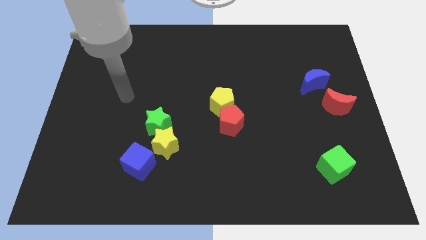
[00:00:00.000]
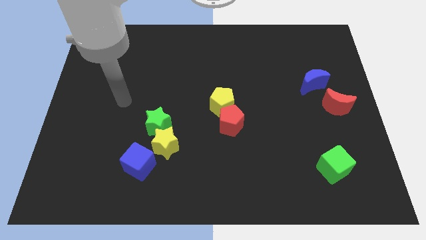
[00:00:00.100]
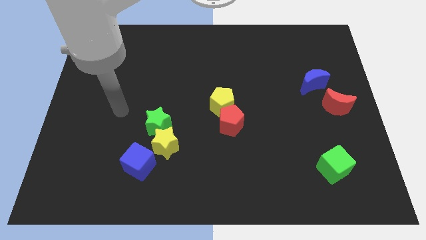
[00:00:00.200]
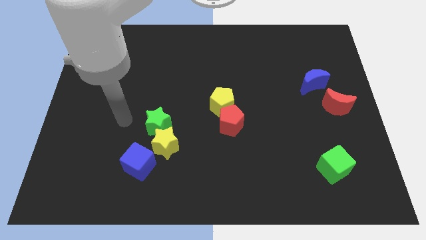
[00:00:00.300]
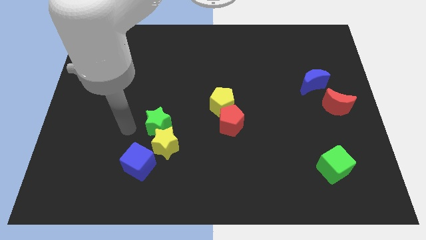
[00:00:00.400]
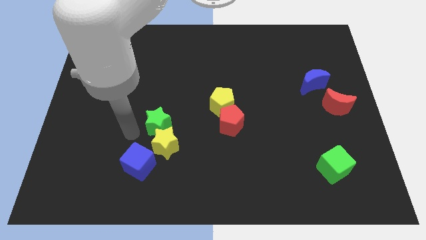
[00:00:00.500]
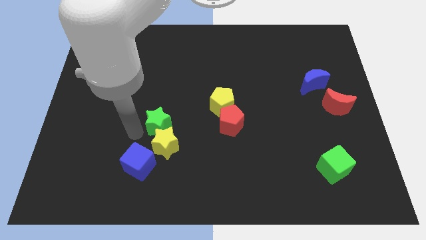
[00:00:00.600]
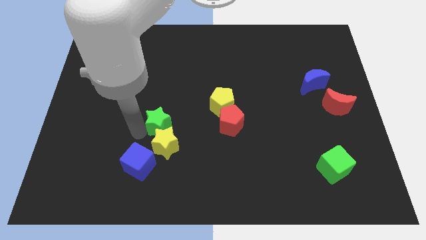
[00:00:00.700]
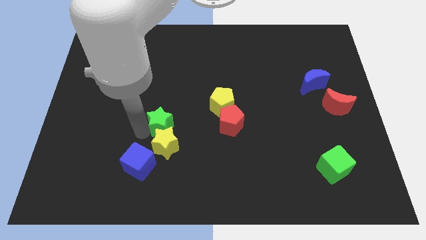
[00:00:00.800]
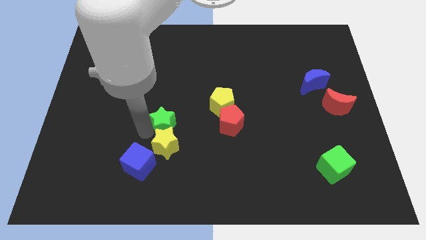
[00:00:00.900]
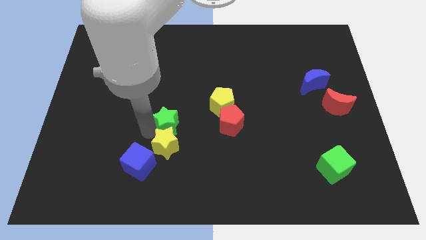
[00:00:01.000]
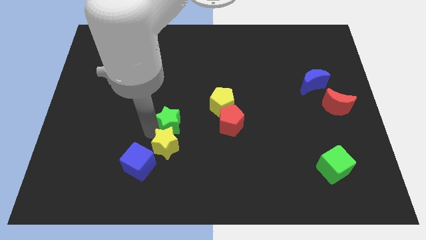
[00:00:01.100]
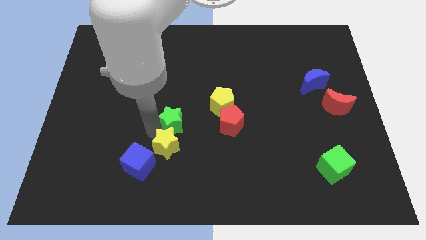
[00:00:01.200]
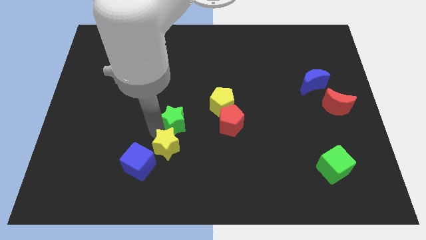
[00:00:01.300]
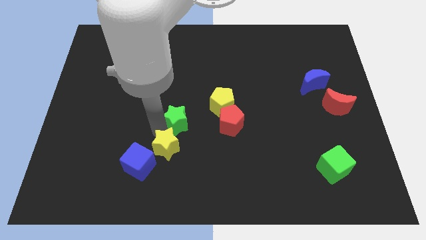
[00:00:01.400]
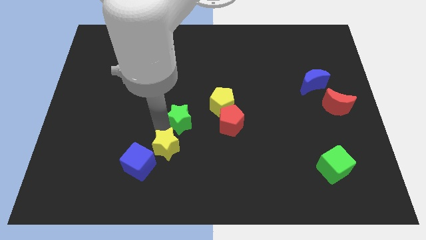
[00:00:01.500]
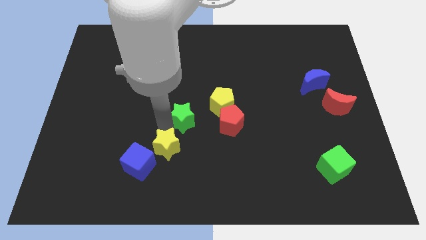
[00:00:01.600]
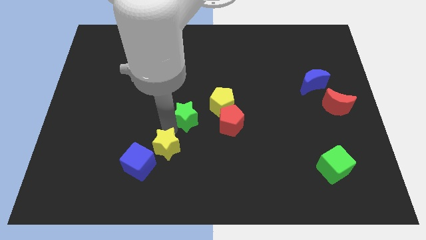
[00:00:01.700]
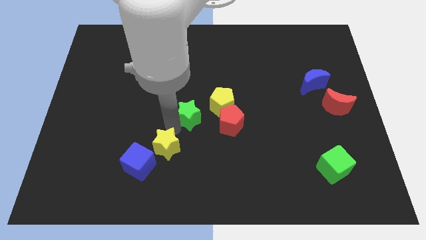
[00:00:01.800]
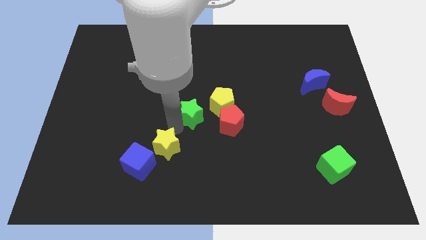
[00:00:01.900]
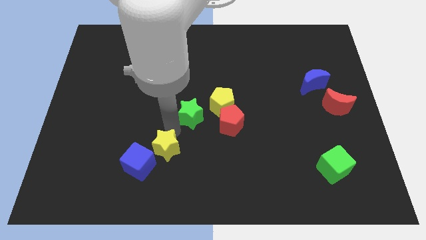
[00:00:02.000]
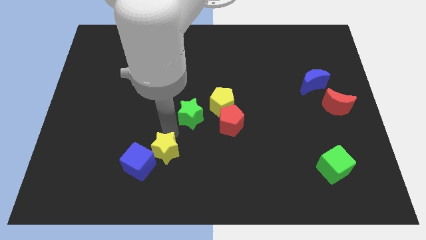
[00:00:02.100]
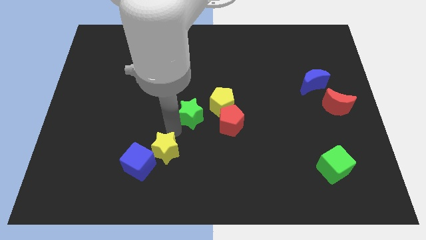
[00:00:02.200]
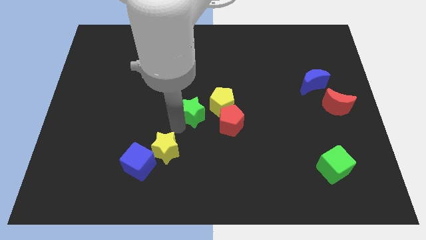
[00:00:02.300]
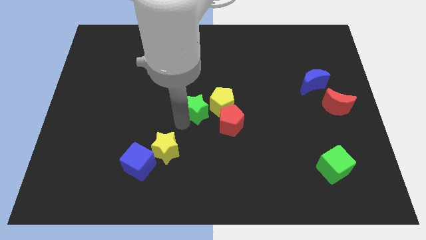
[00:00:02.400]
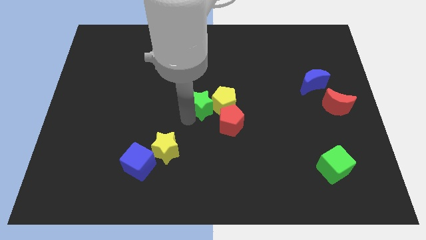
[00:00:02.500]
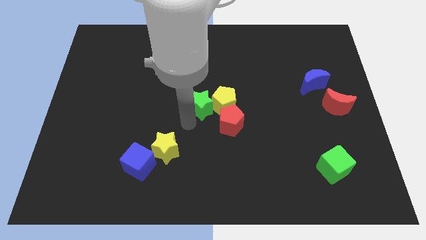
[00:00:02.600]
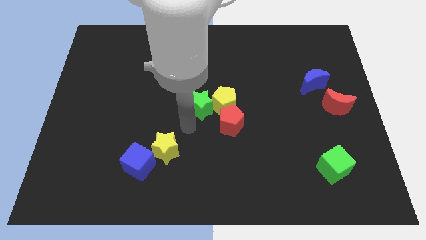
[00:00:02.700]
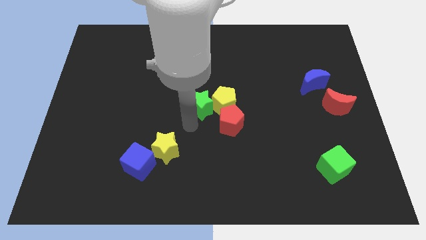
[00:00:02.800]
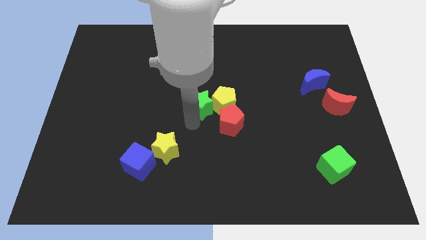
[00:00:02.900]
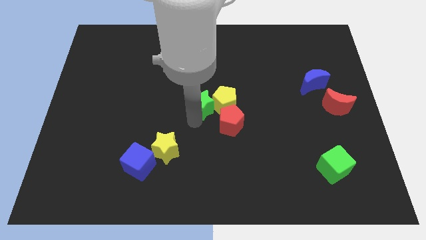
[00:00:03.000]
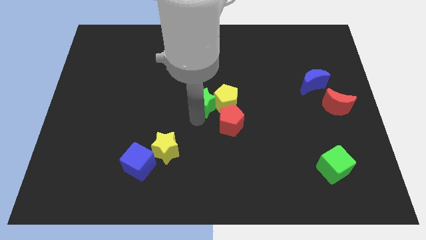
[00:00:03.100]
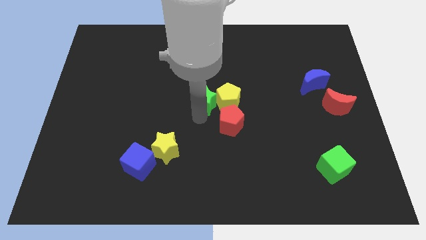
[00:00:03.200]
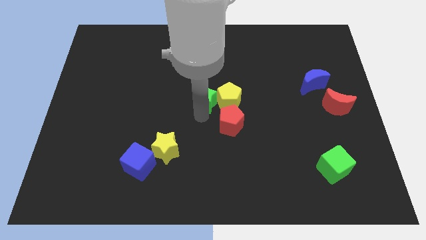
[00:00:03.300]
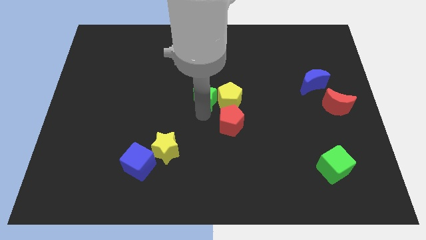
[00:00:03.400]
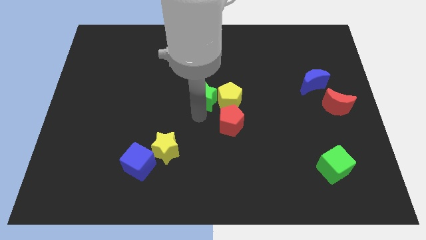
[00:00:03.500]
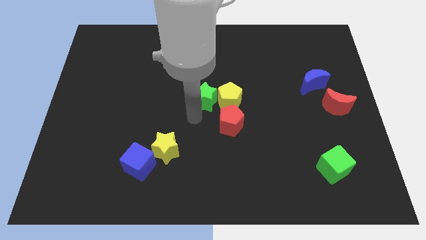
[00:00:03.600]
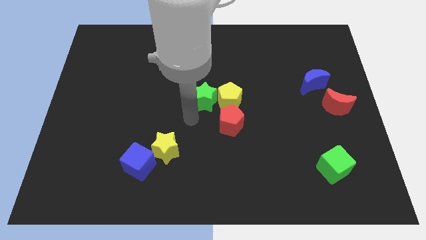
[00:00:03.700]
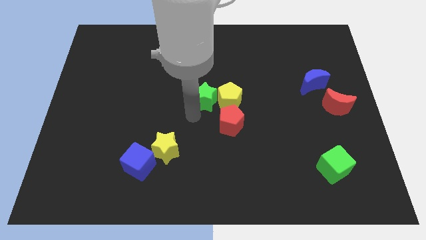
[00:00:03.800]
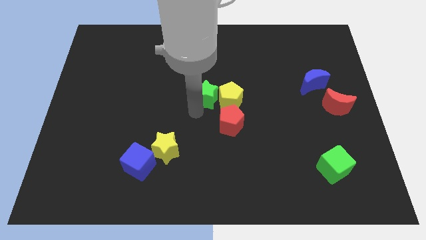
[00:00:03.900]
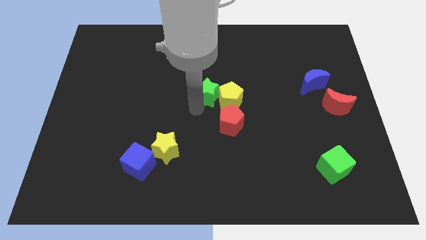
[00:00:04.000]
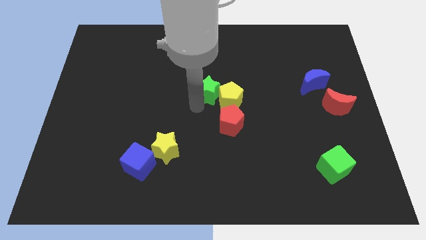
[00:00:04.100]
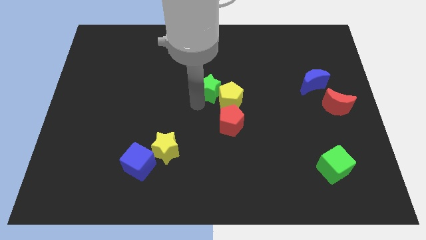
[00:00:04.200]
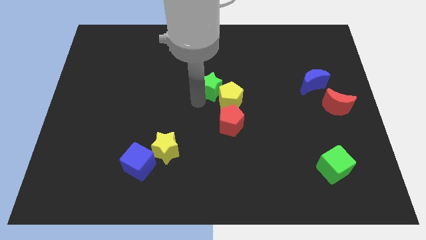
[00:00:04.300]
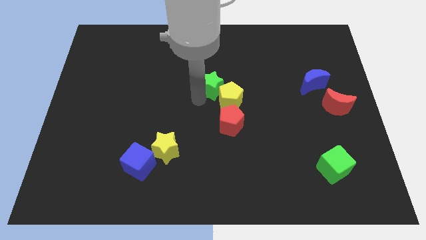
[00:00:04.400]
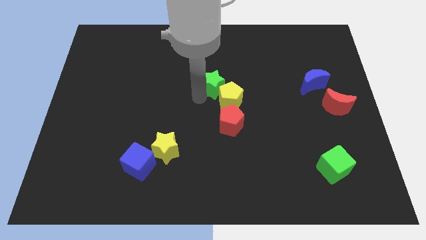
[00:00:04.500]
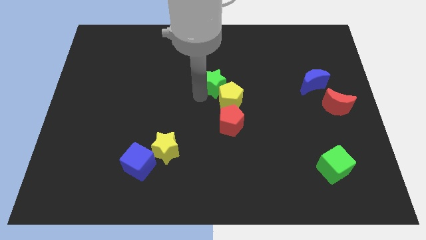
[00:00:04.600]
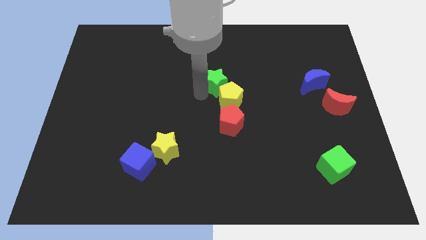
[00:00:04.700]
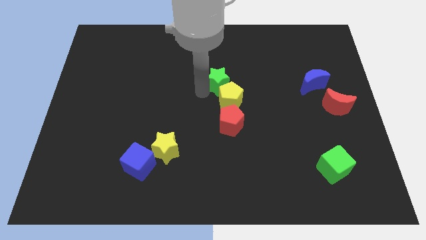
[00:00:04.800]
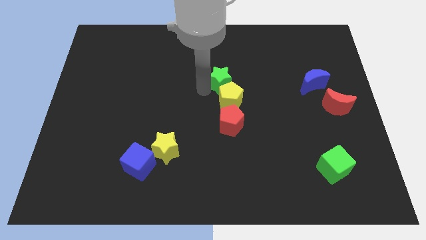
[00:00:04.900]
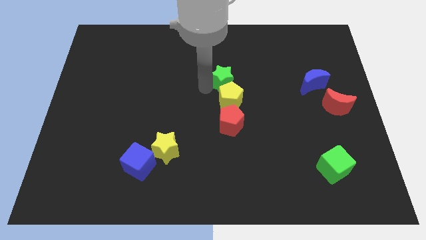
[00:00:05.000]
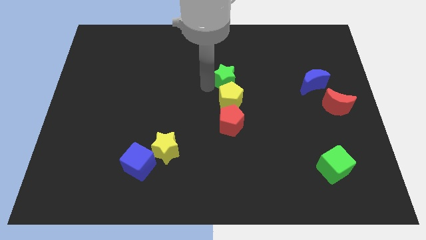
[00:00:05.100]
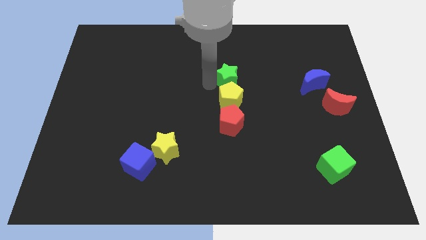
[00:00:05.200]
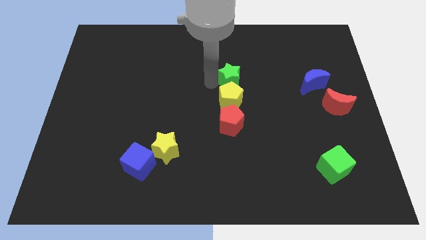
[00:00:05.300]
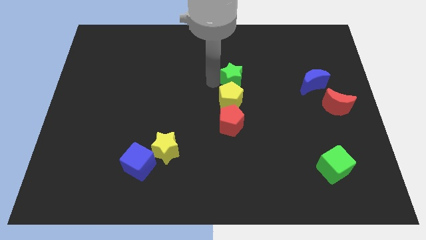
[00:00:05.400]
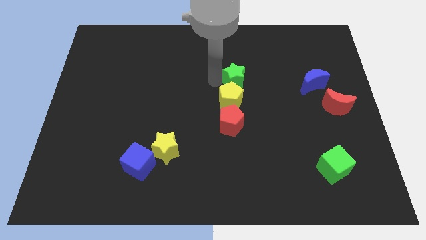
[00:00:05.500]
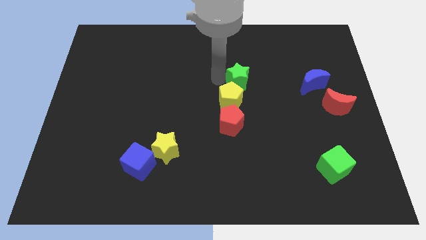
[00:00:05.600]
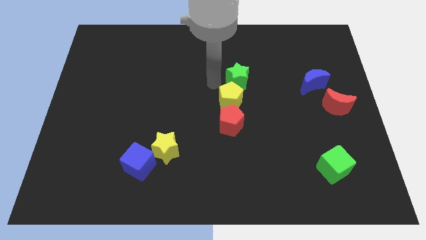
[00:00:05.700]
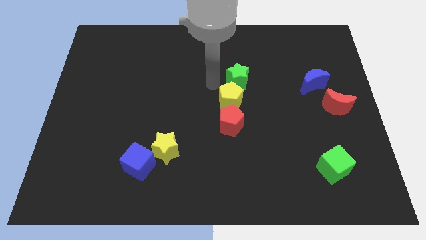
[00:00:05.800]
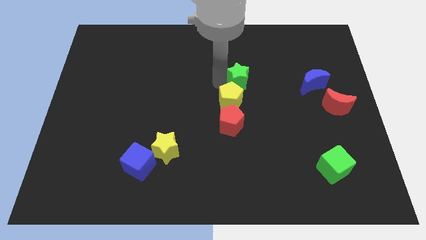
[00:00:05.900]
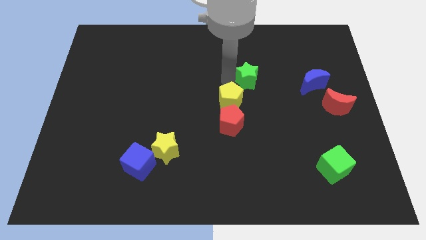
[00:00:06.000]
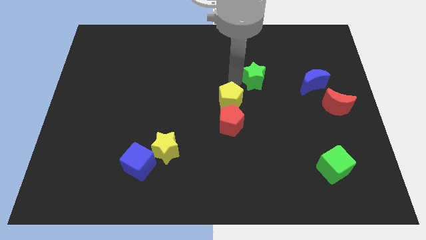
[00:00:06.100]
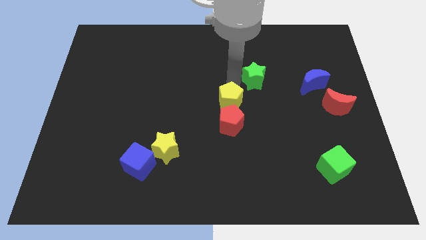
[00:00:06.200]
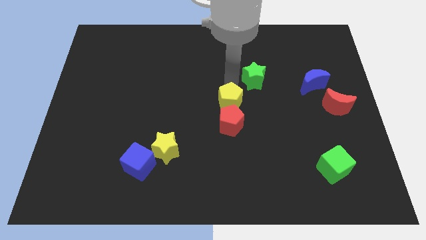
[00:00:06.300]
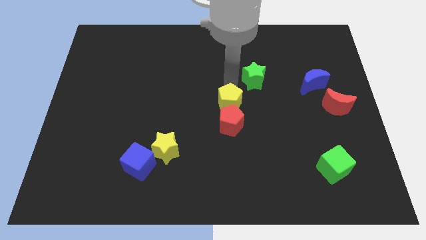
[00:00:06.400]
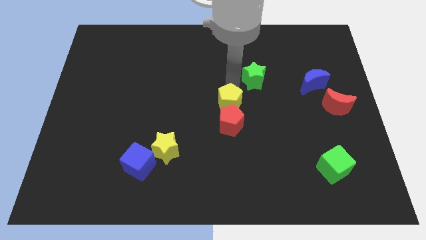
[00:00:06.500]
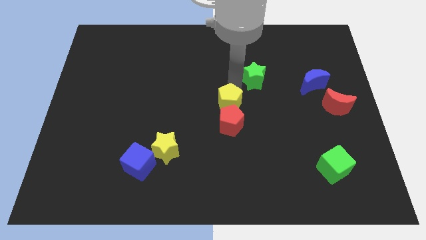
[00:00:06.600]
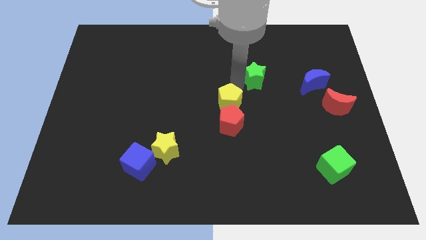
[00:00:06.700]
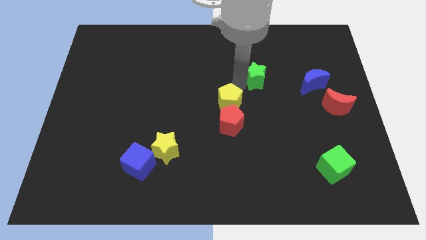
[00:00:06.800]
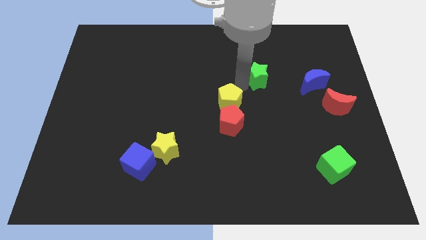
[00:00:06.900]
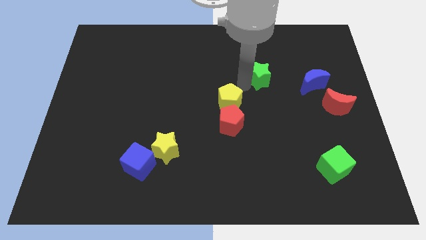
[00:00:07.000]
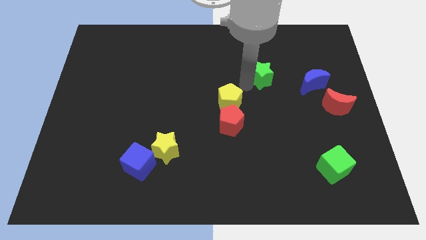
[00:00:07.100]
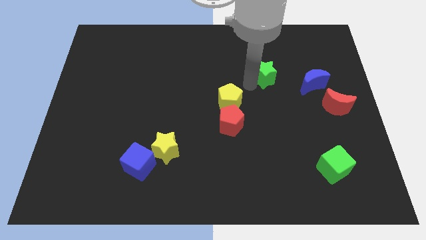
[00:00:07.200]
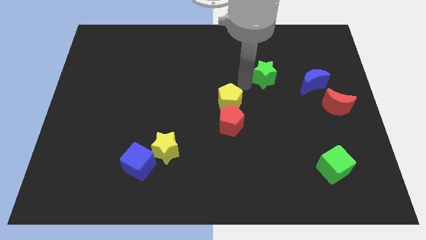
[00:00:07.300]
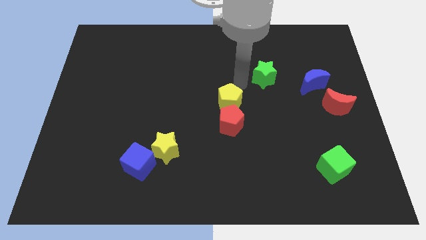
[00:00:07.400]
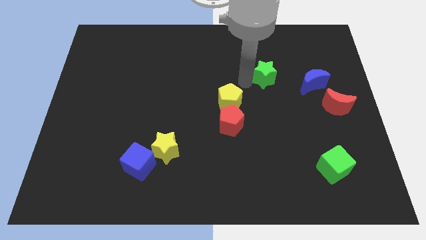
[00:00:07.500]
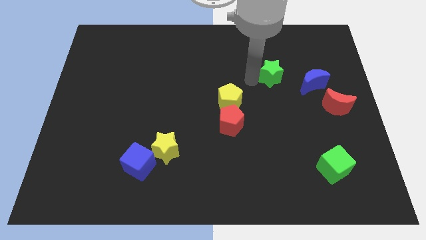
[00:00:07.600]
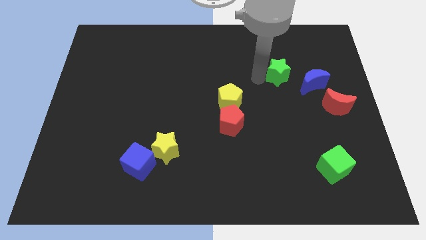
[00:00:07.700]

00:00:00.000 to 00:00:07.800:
push the green star diagonally up and to the left of the blue moon
